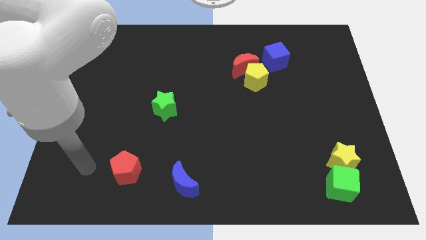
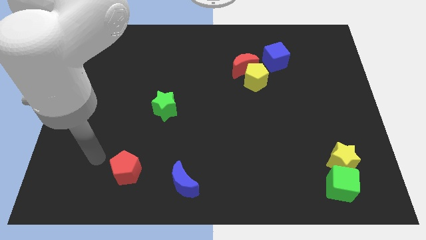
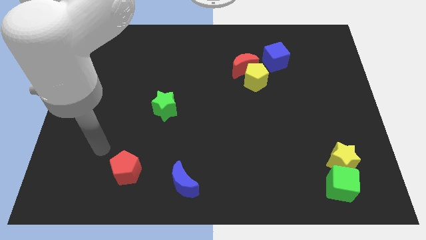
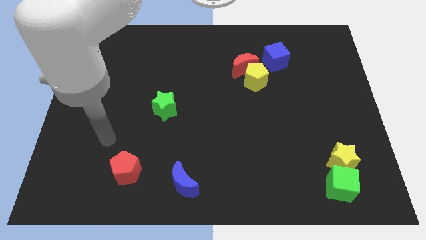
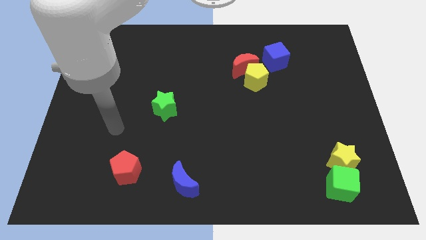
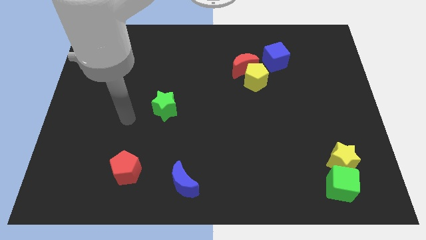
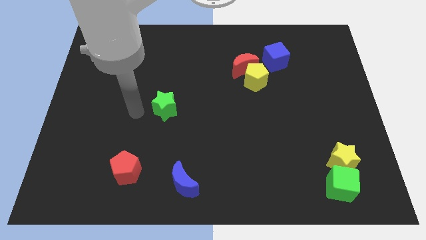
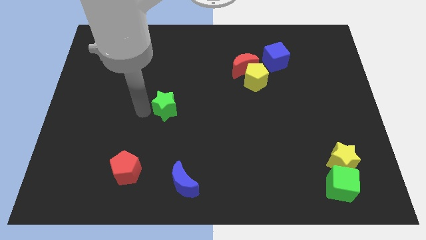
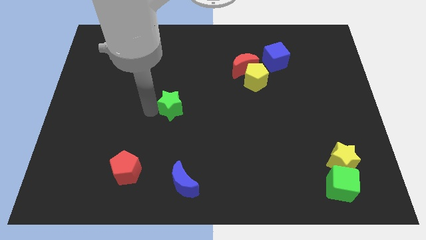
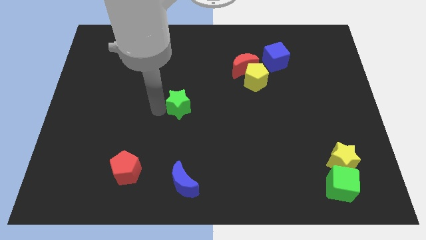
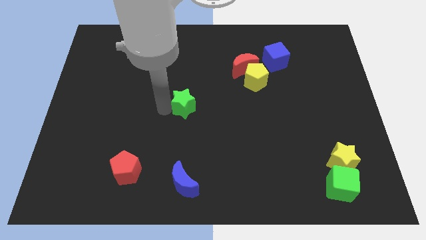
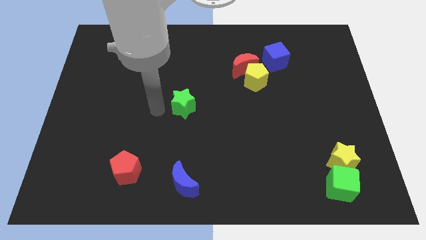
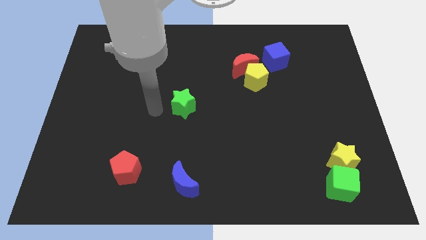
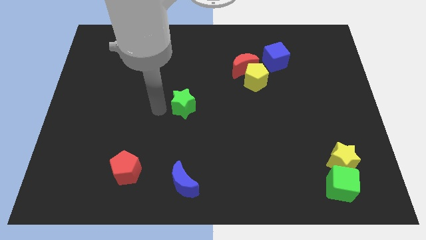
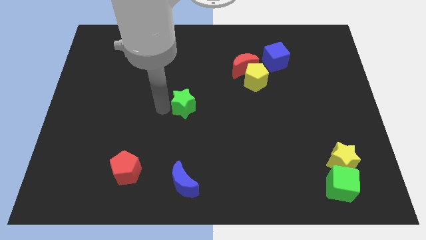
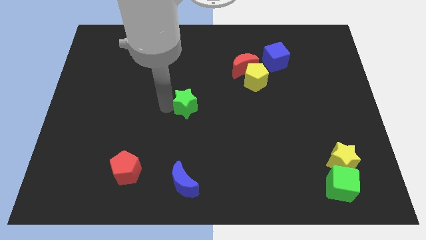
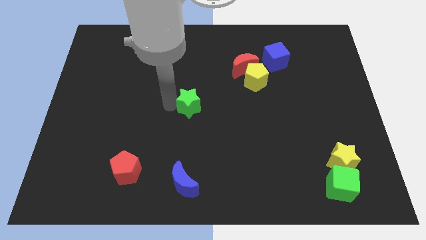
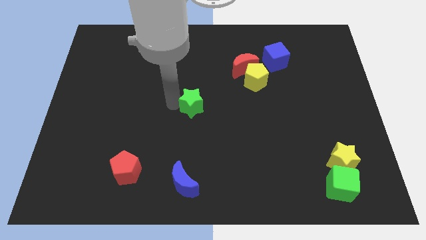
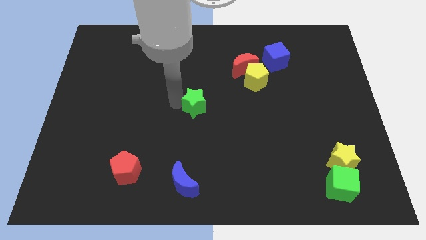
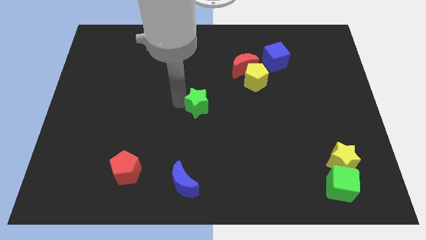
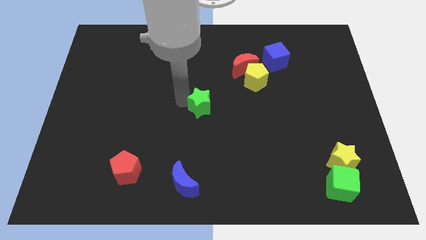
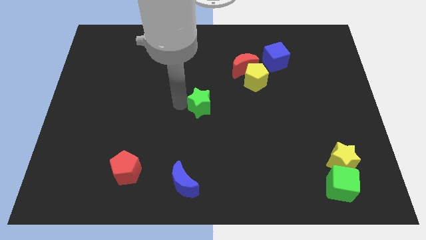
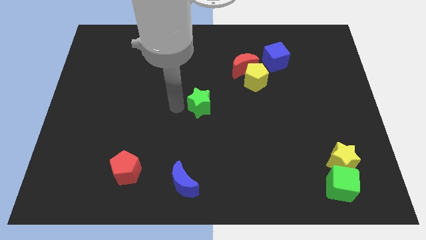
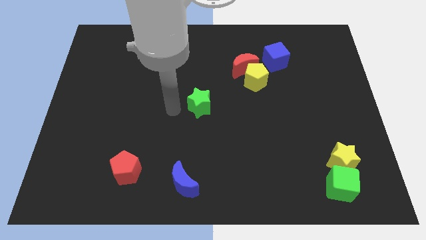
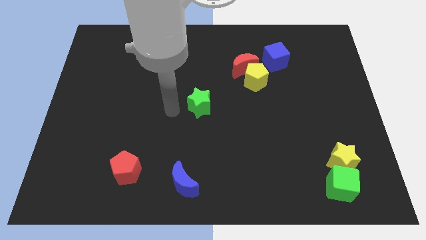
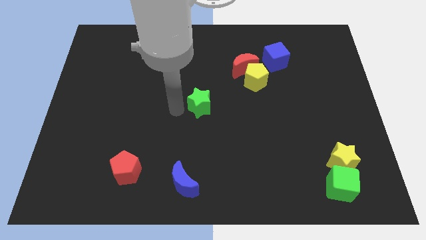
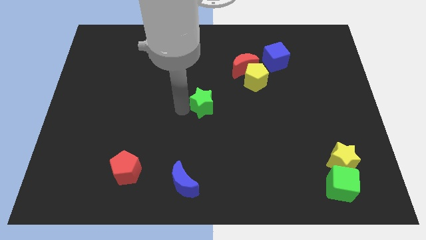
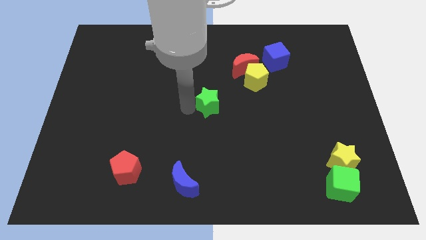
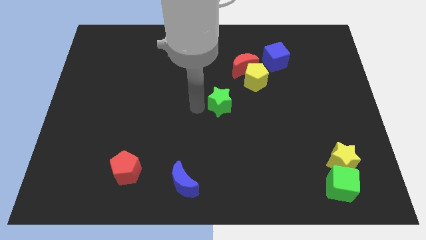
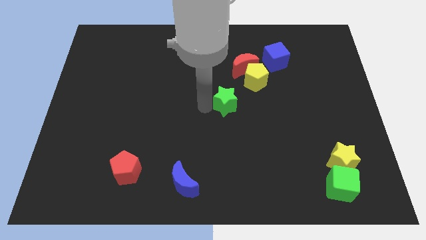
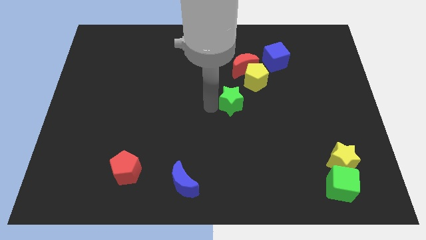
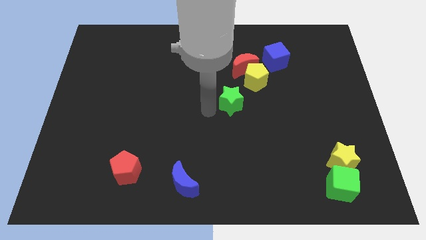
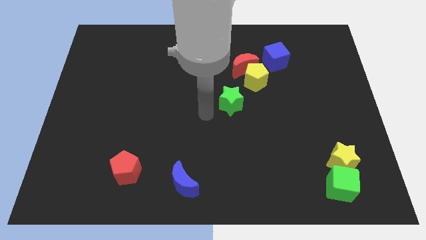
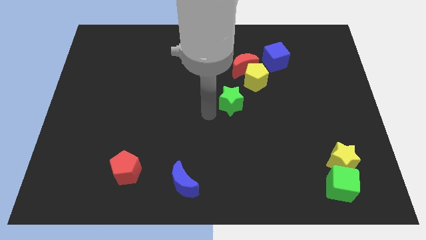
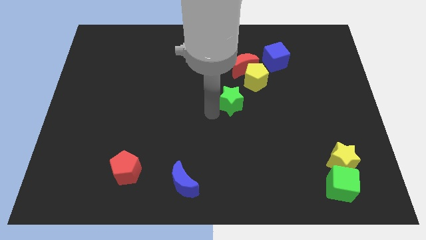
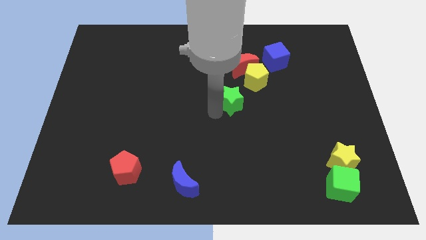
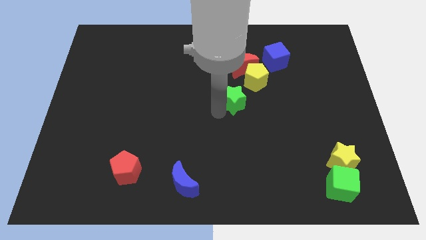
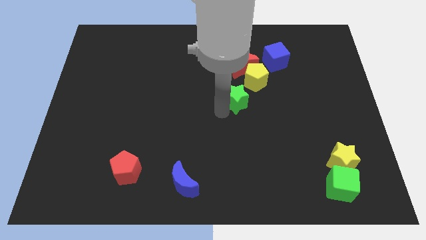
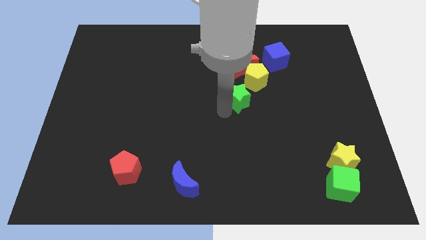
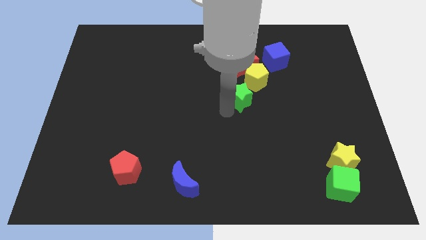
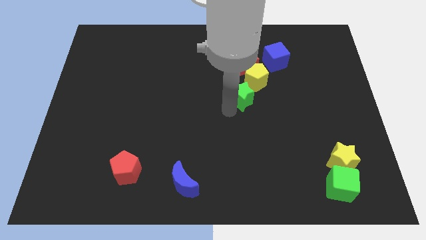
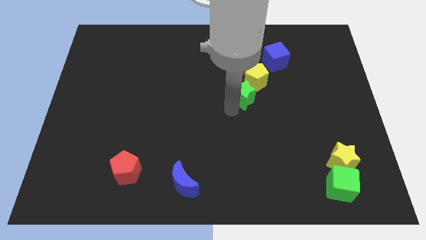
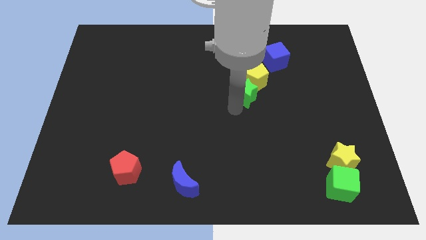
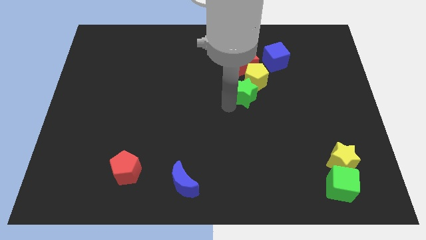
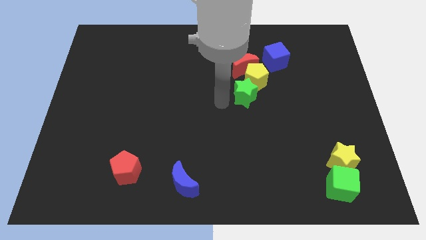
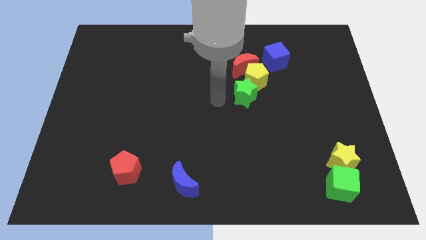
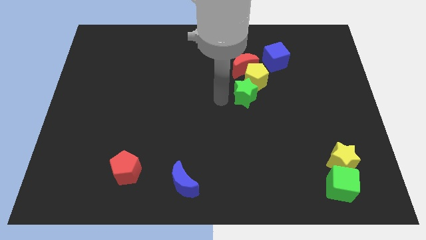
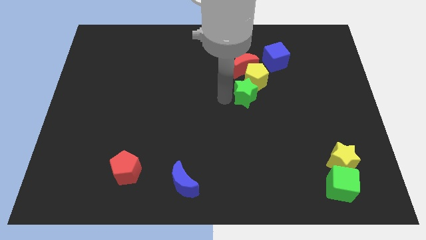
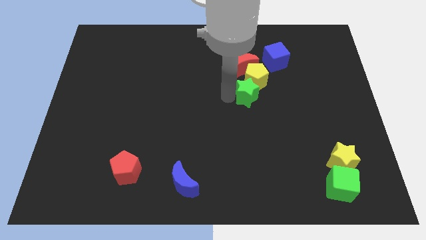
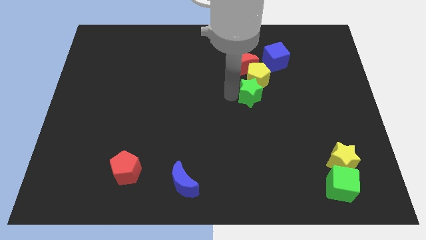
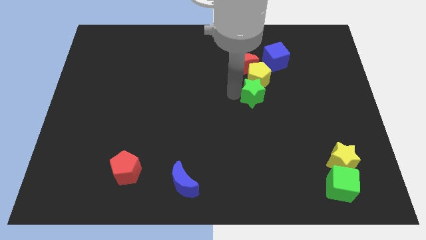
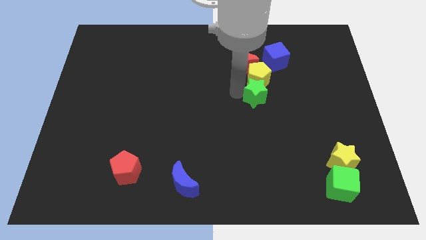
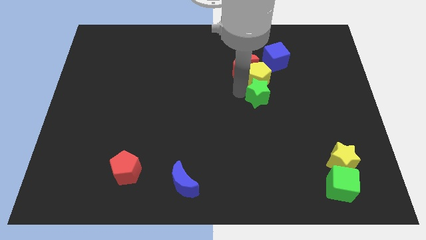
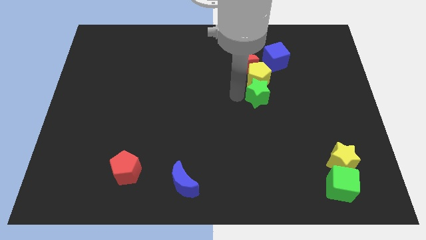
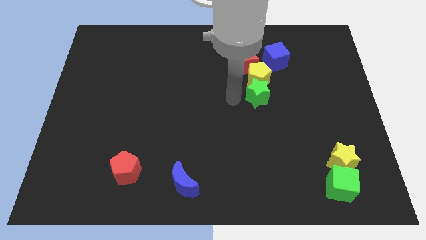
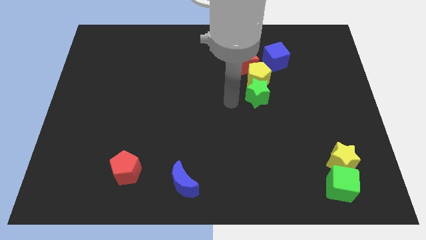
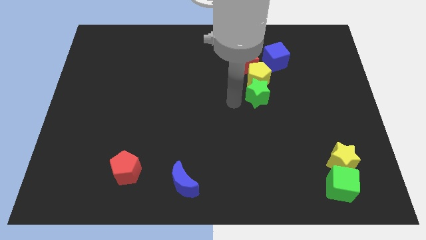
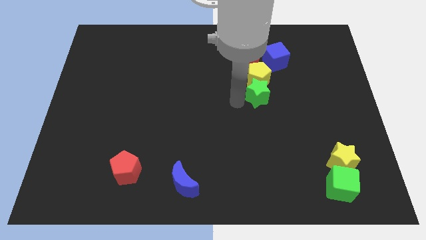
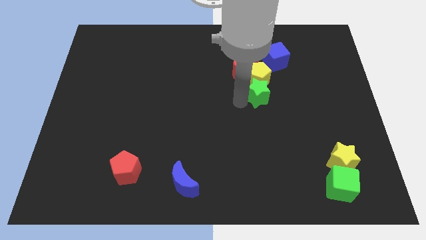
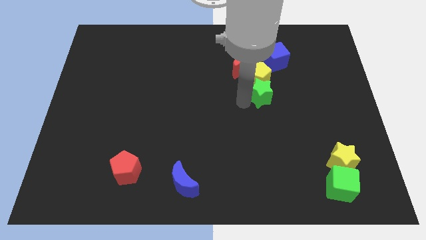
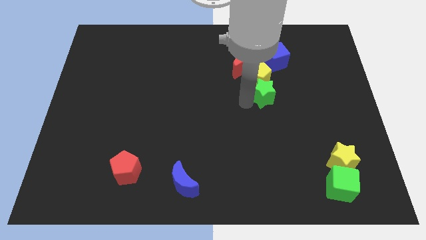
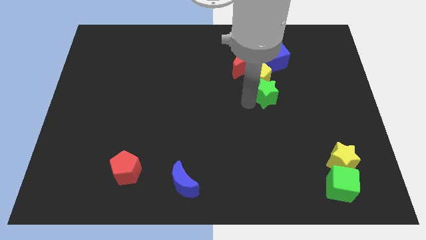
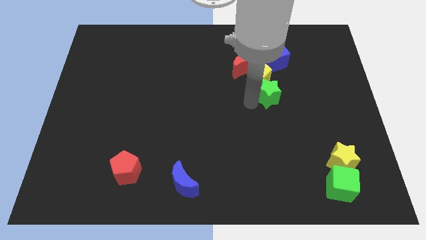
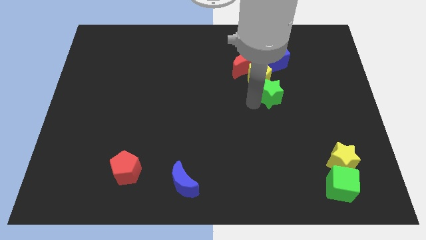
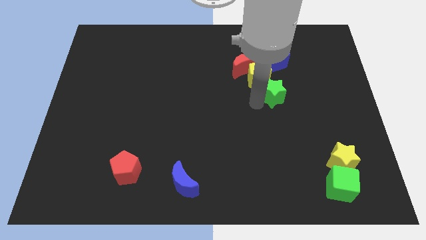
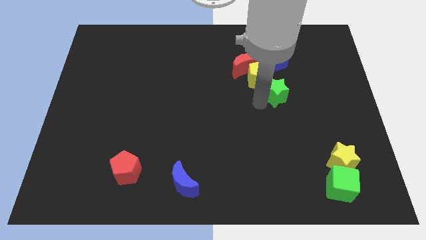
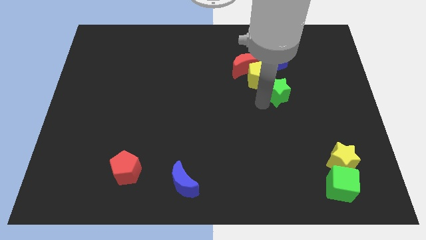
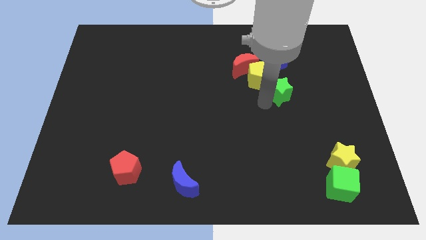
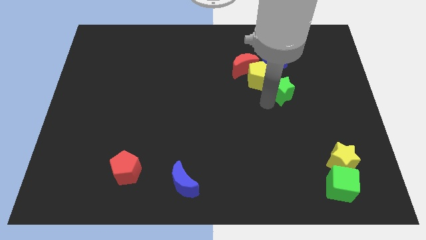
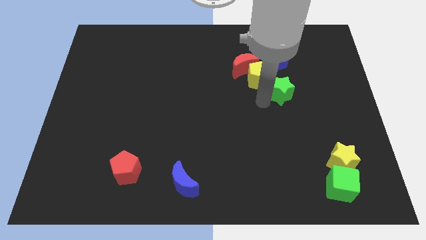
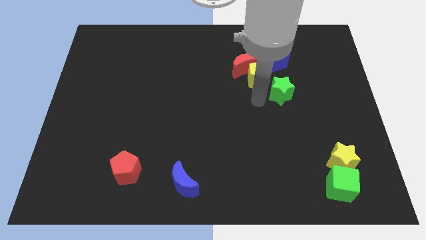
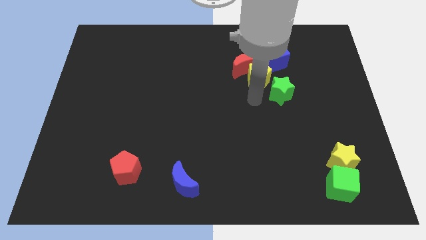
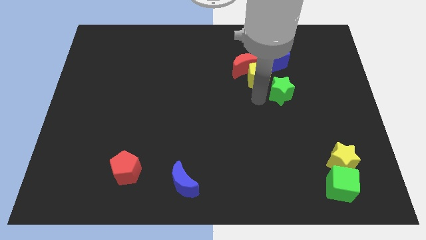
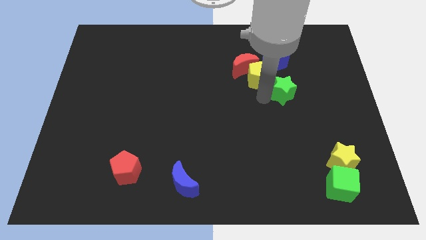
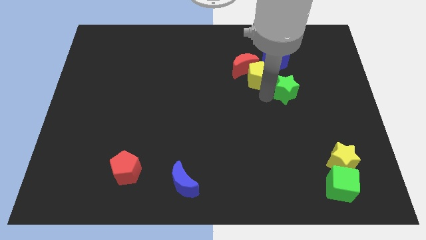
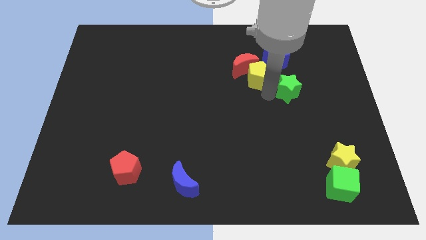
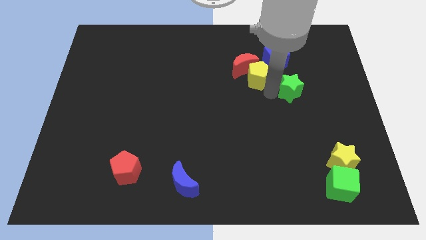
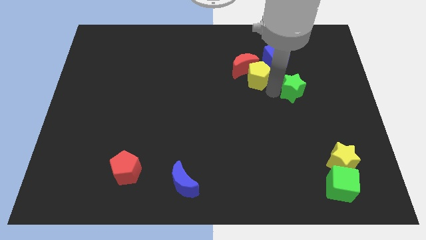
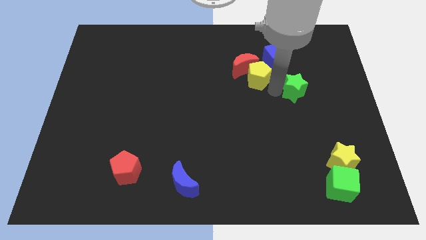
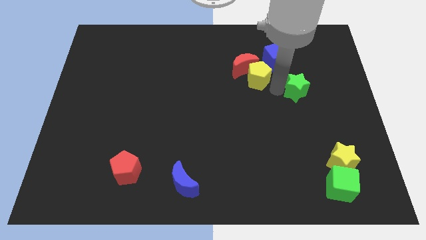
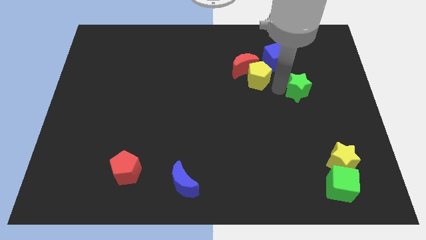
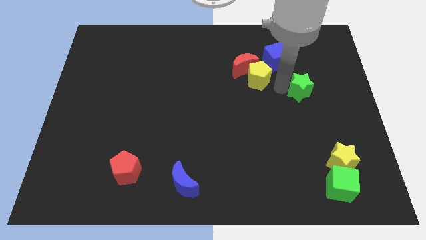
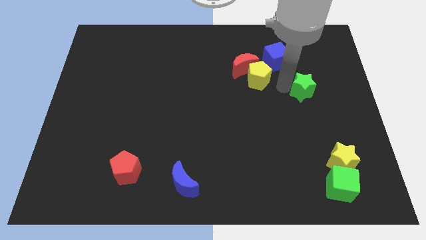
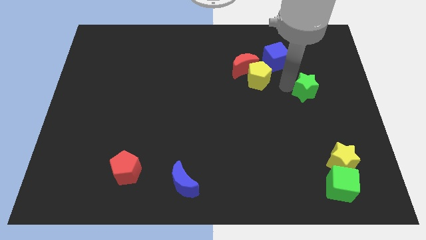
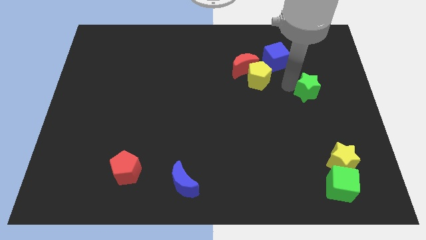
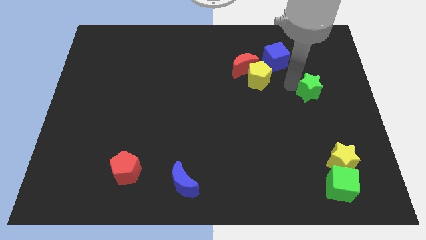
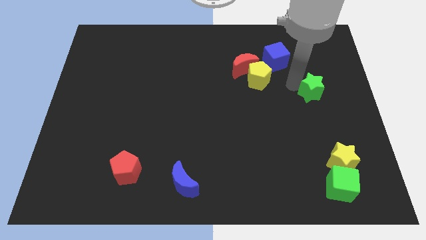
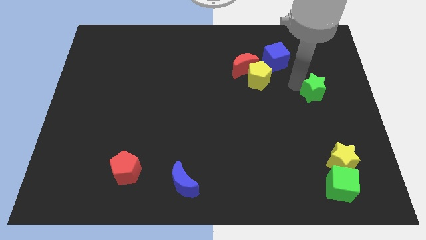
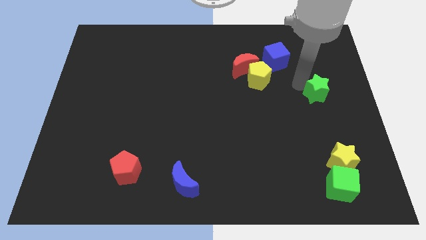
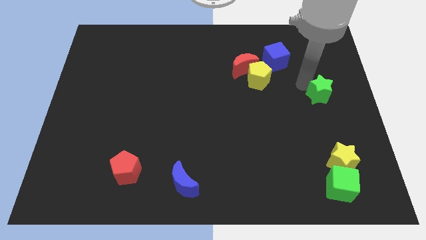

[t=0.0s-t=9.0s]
put the green star to the right side of the board
